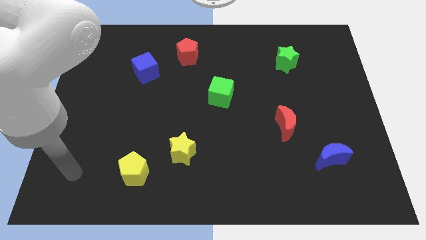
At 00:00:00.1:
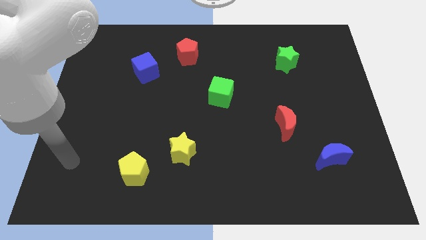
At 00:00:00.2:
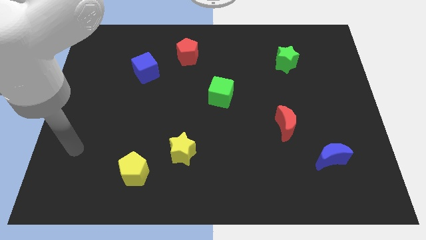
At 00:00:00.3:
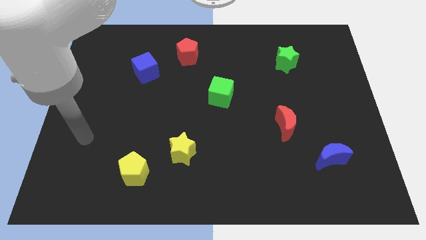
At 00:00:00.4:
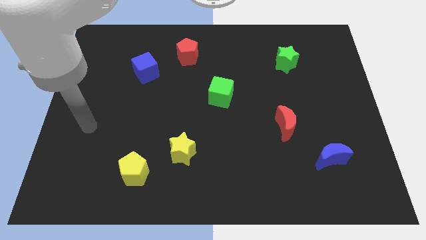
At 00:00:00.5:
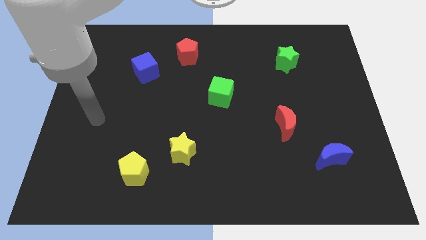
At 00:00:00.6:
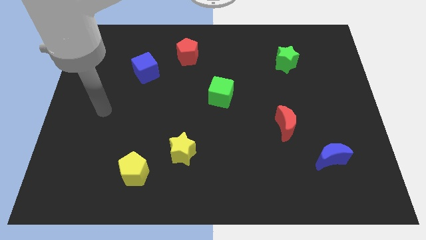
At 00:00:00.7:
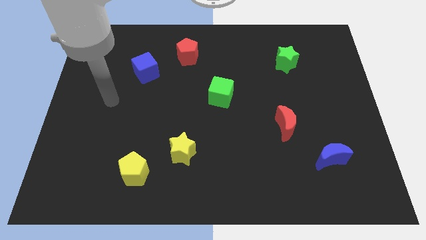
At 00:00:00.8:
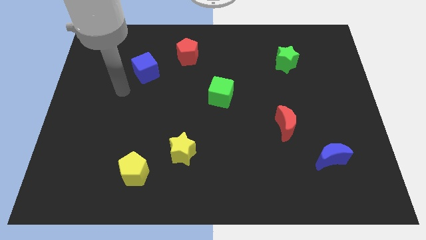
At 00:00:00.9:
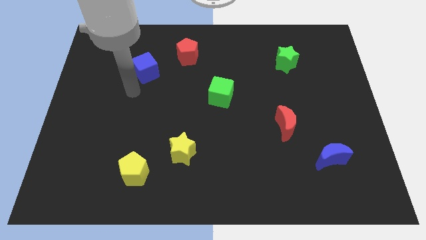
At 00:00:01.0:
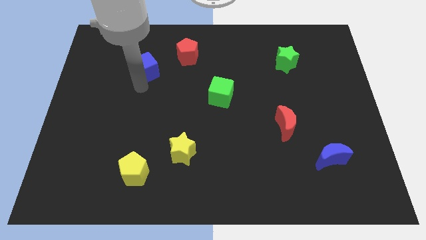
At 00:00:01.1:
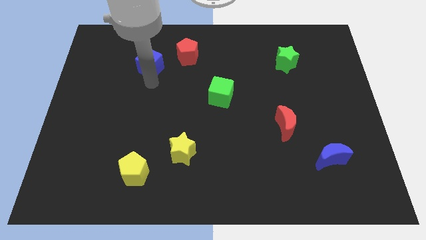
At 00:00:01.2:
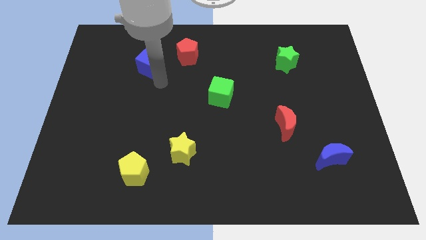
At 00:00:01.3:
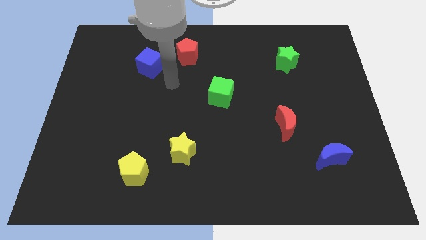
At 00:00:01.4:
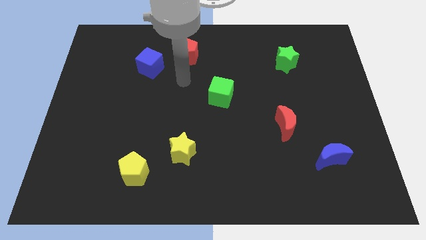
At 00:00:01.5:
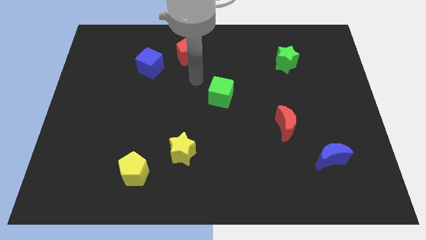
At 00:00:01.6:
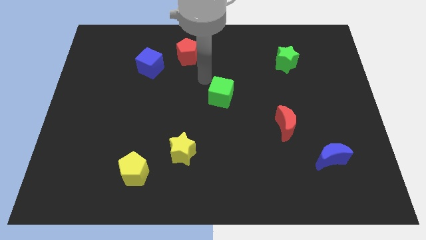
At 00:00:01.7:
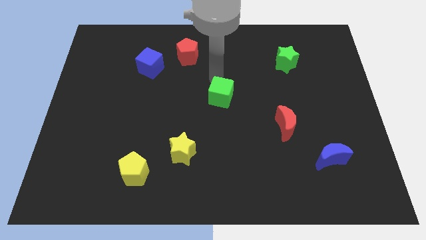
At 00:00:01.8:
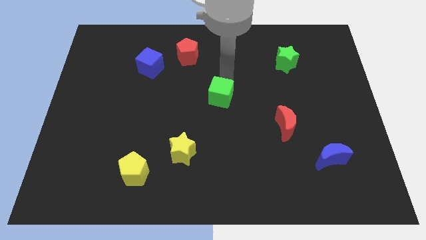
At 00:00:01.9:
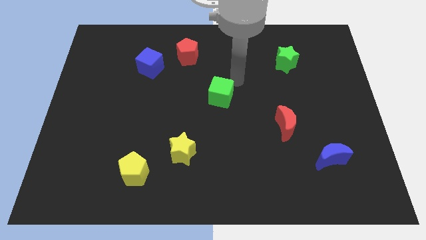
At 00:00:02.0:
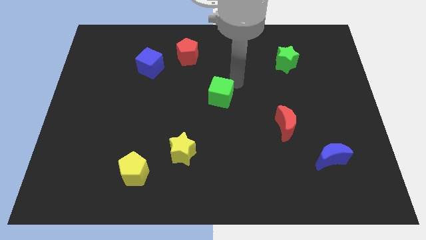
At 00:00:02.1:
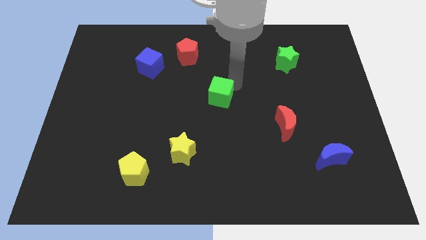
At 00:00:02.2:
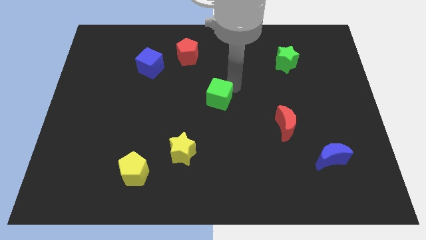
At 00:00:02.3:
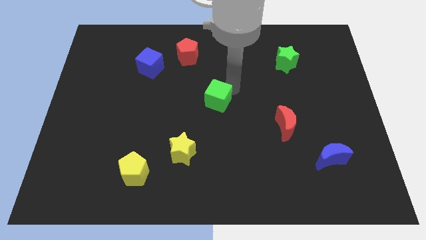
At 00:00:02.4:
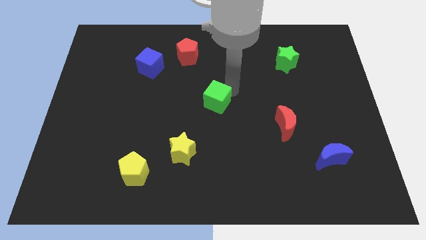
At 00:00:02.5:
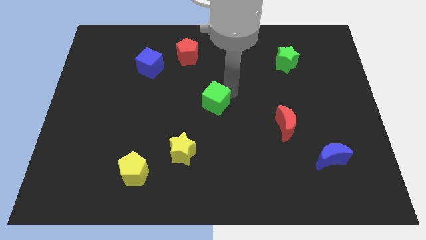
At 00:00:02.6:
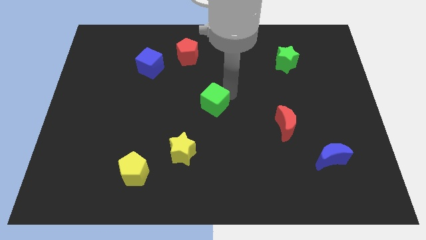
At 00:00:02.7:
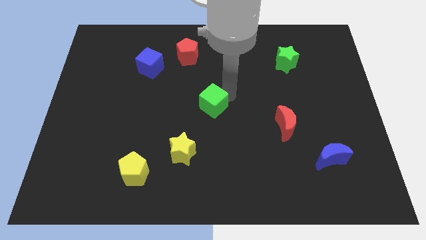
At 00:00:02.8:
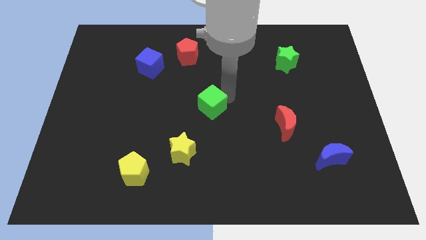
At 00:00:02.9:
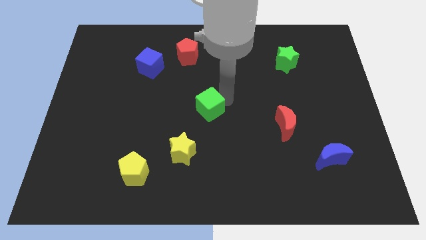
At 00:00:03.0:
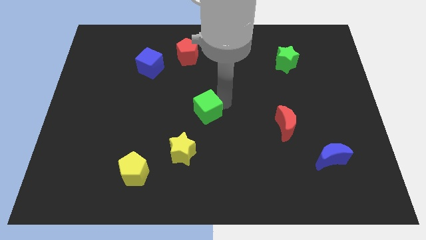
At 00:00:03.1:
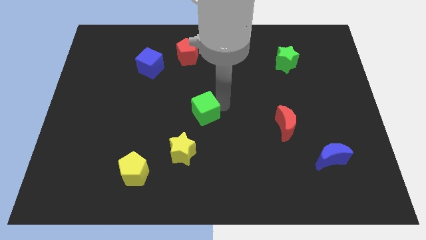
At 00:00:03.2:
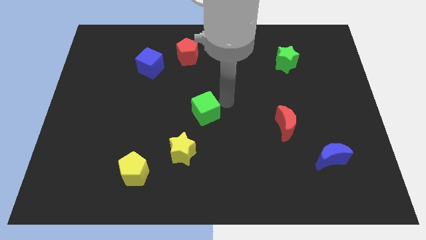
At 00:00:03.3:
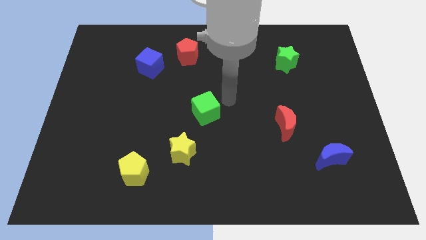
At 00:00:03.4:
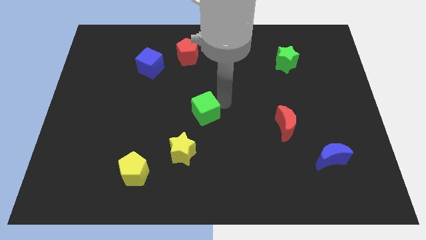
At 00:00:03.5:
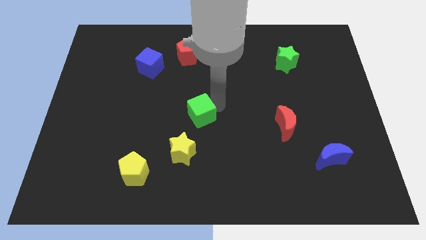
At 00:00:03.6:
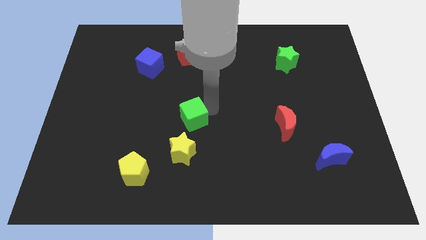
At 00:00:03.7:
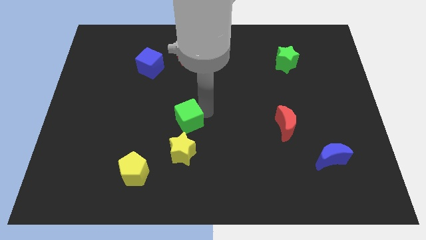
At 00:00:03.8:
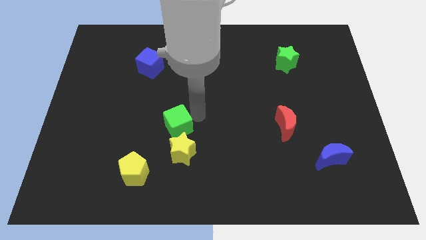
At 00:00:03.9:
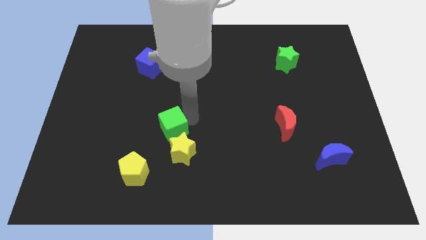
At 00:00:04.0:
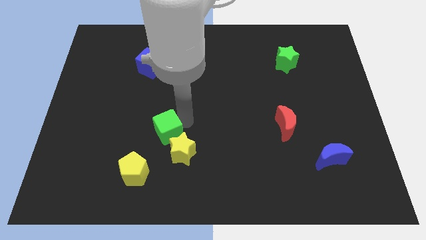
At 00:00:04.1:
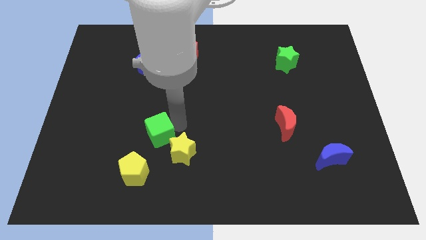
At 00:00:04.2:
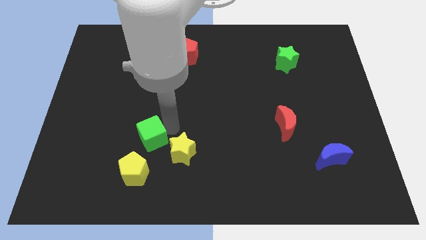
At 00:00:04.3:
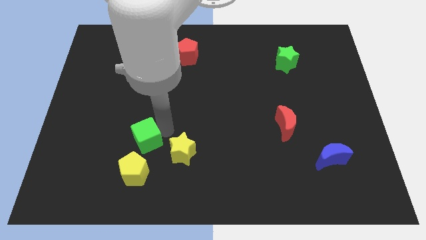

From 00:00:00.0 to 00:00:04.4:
slide the green cube diagonally down and left

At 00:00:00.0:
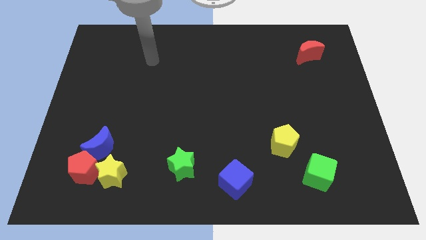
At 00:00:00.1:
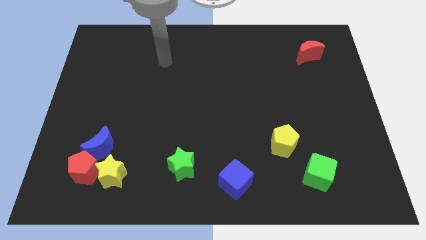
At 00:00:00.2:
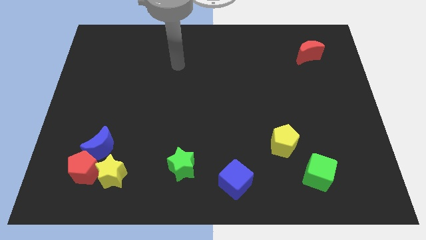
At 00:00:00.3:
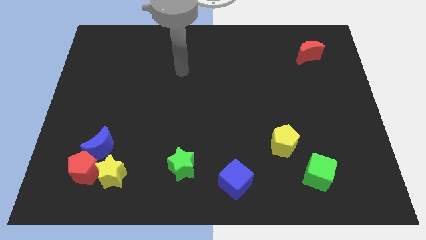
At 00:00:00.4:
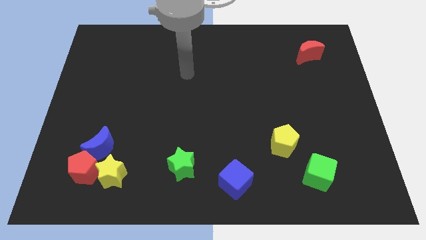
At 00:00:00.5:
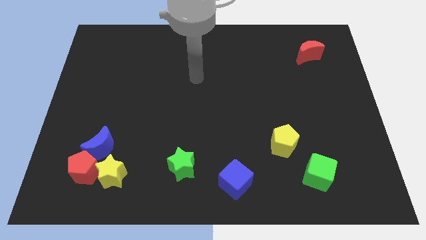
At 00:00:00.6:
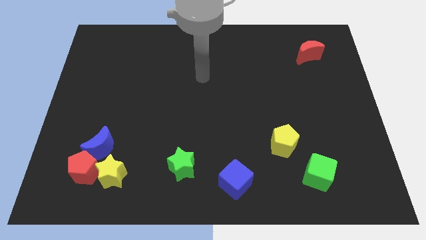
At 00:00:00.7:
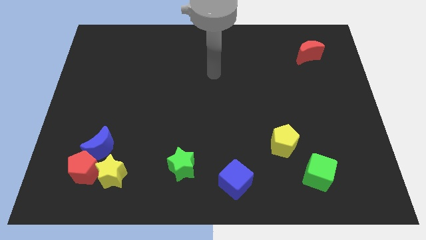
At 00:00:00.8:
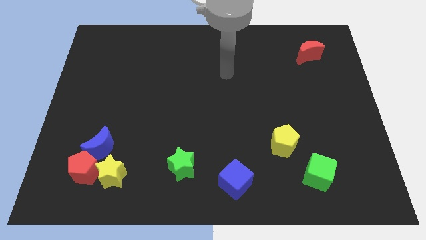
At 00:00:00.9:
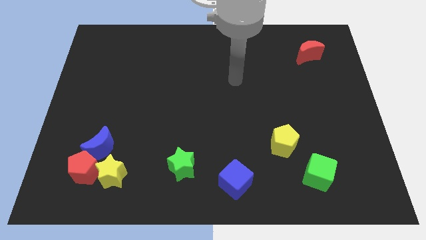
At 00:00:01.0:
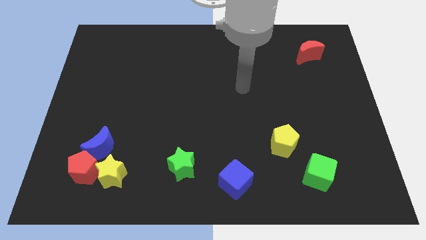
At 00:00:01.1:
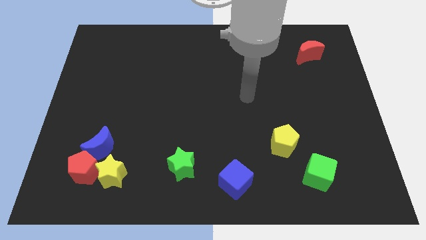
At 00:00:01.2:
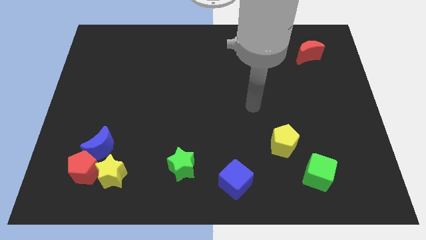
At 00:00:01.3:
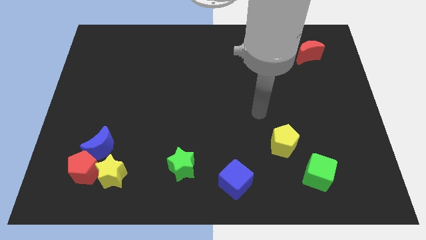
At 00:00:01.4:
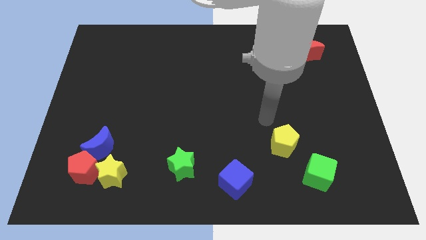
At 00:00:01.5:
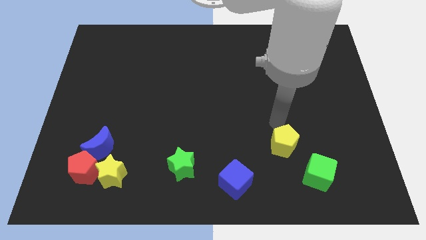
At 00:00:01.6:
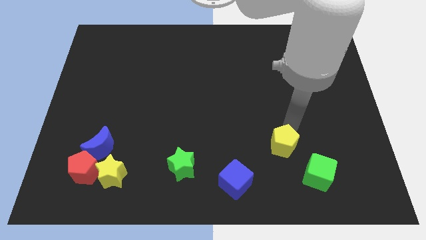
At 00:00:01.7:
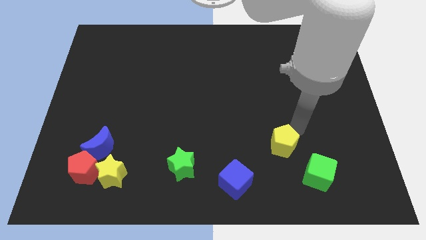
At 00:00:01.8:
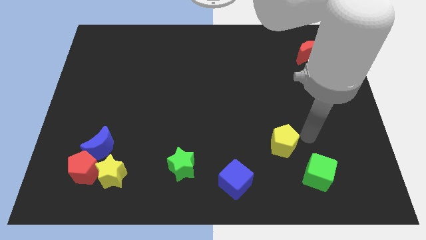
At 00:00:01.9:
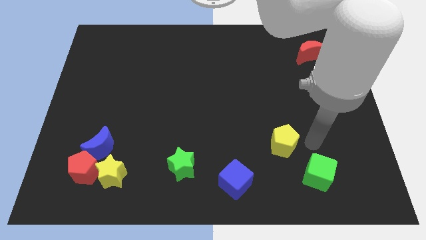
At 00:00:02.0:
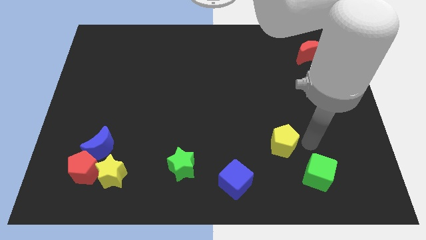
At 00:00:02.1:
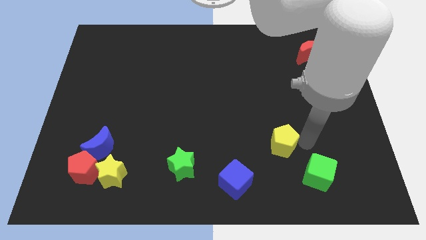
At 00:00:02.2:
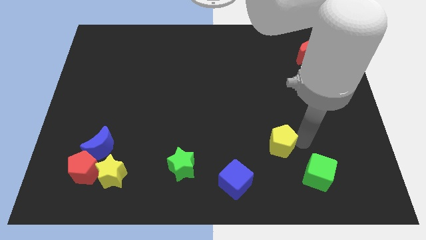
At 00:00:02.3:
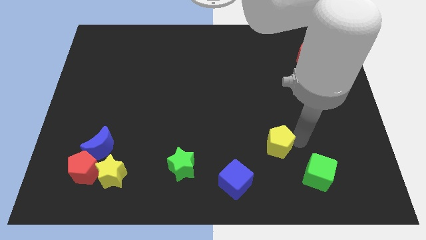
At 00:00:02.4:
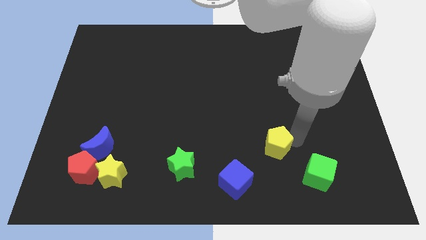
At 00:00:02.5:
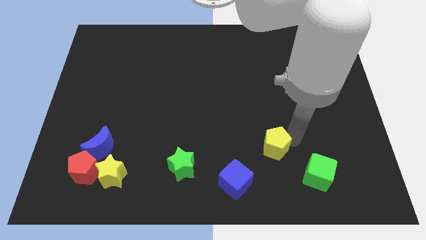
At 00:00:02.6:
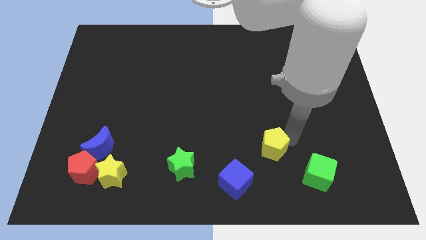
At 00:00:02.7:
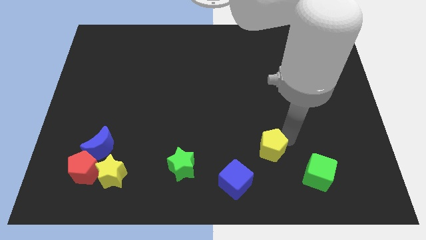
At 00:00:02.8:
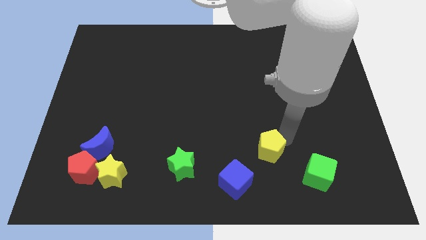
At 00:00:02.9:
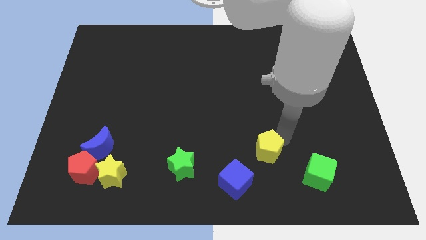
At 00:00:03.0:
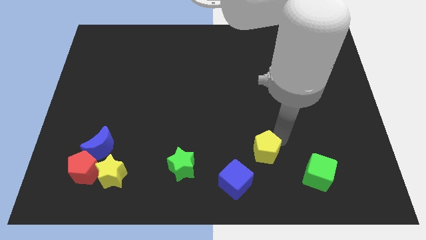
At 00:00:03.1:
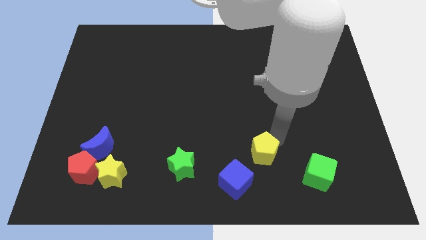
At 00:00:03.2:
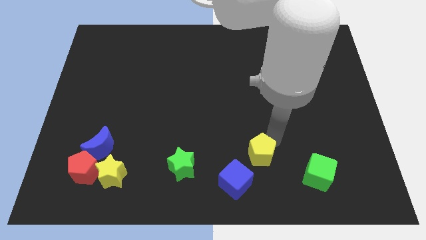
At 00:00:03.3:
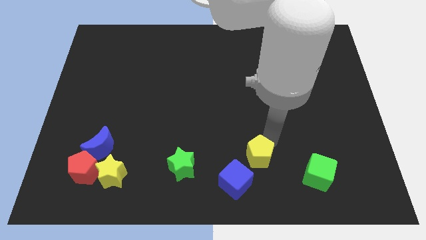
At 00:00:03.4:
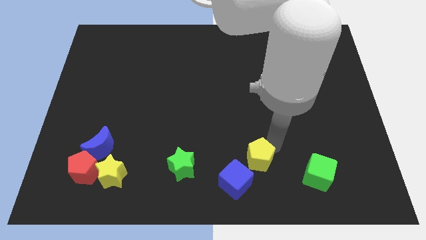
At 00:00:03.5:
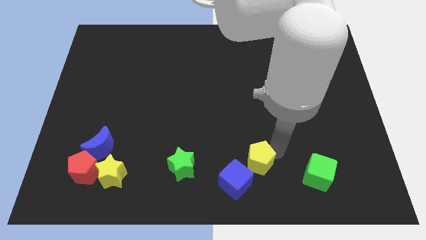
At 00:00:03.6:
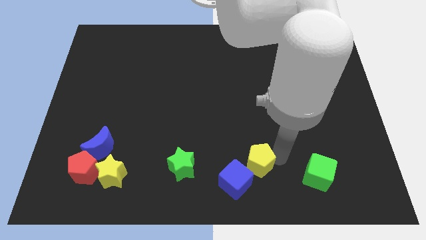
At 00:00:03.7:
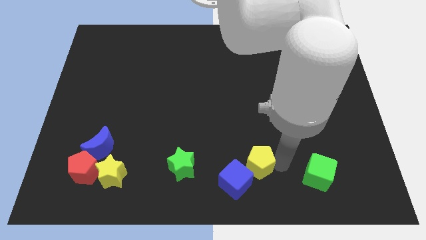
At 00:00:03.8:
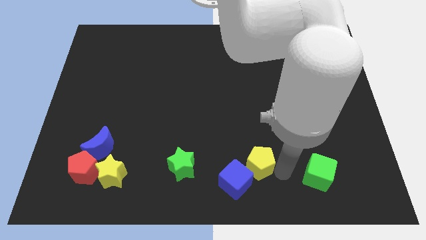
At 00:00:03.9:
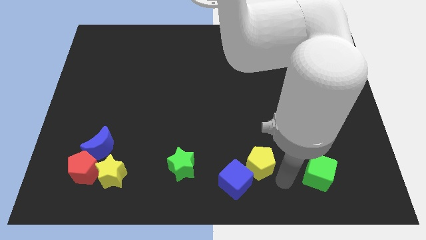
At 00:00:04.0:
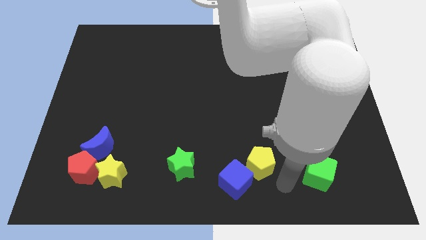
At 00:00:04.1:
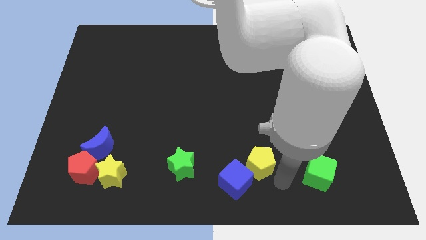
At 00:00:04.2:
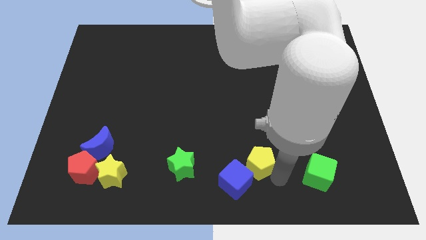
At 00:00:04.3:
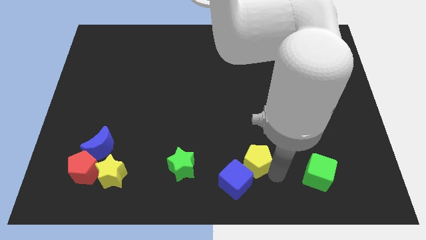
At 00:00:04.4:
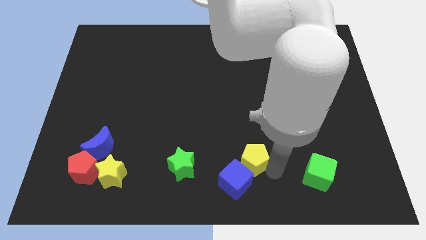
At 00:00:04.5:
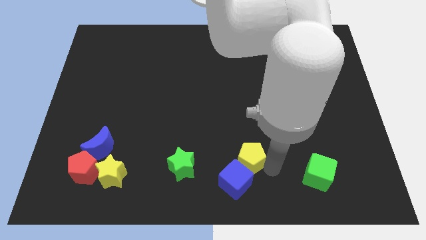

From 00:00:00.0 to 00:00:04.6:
push the yellow pentagon left somewhat
